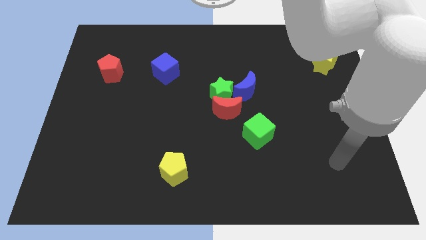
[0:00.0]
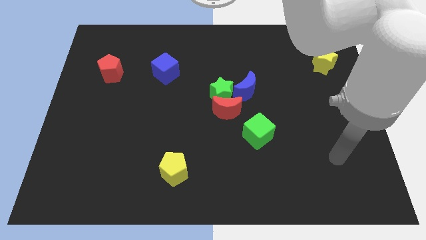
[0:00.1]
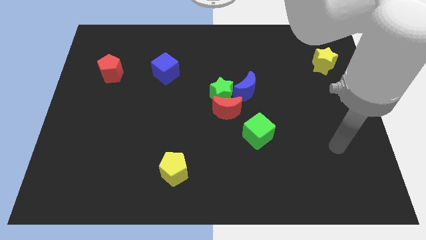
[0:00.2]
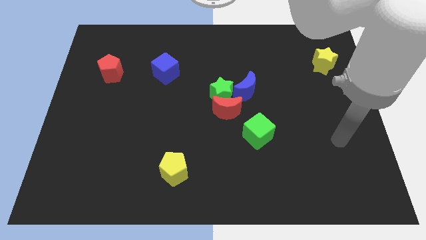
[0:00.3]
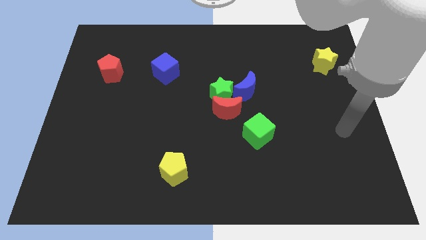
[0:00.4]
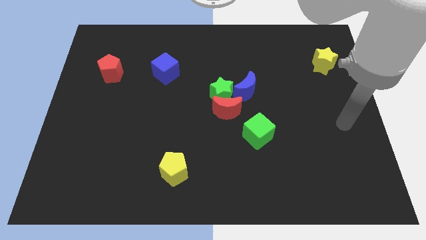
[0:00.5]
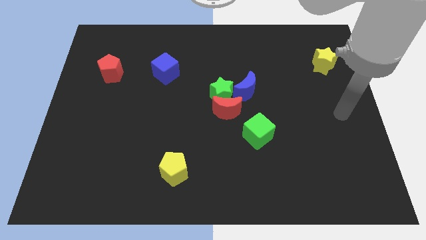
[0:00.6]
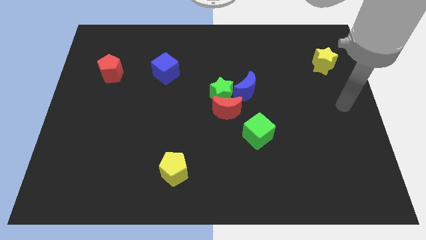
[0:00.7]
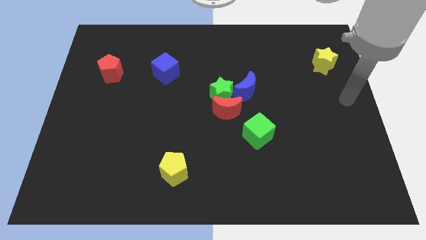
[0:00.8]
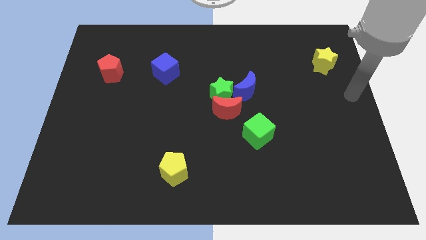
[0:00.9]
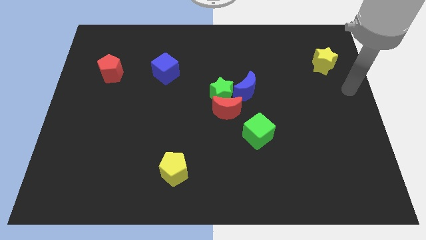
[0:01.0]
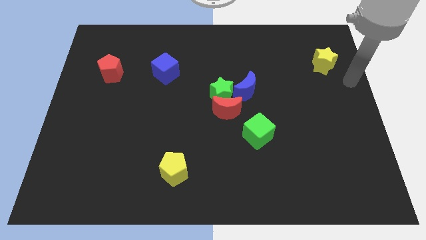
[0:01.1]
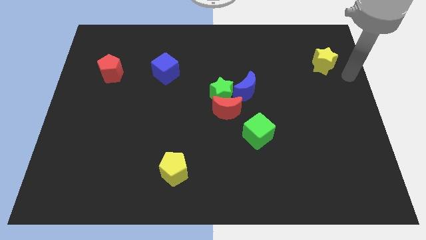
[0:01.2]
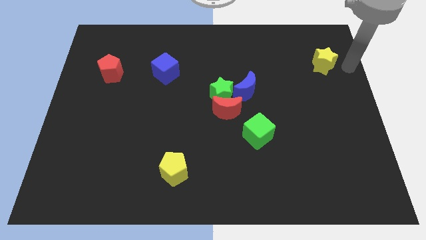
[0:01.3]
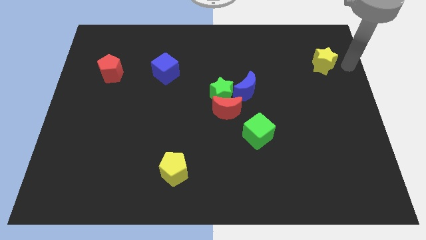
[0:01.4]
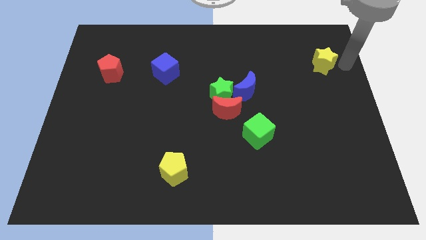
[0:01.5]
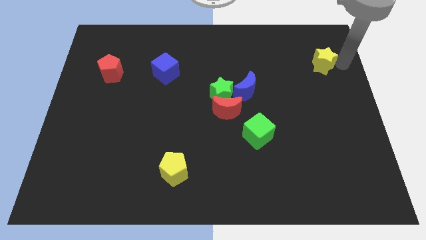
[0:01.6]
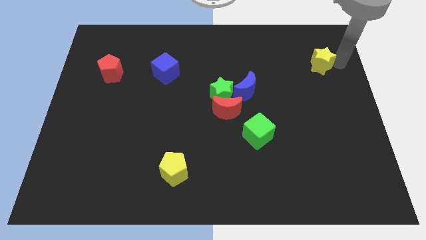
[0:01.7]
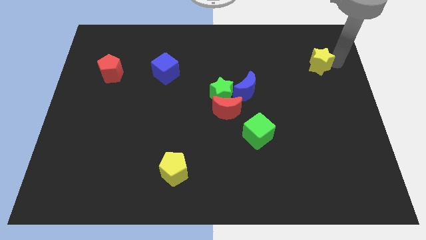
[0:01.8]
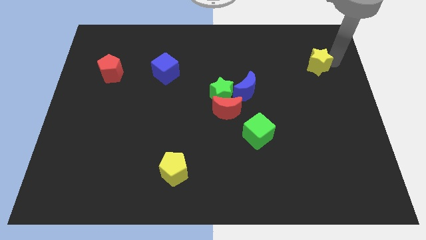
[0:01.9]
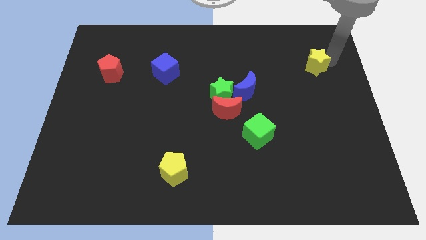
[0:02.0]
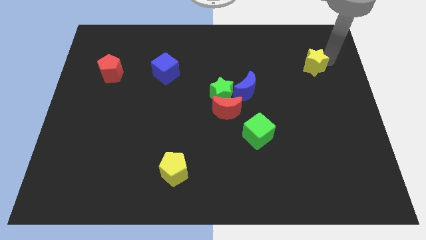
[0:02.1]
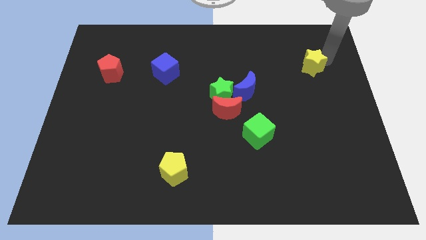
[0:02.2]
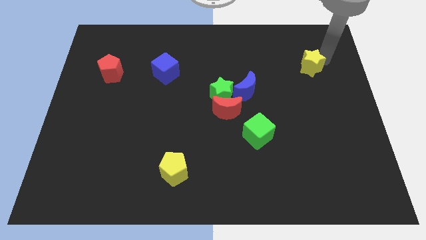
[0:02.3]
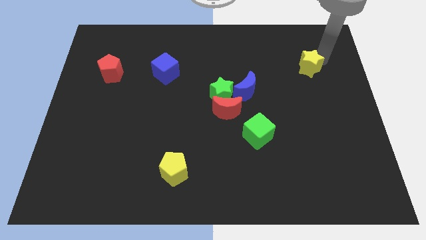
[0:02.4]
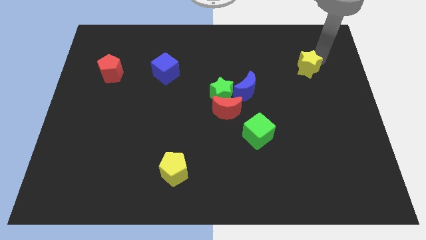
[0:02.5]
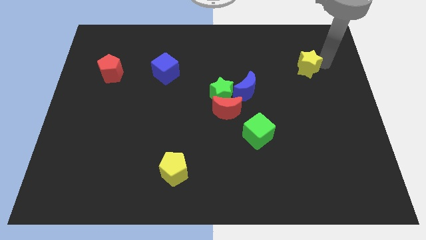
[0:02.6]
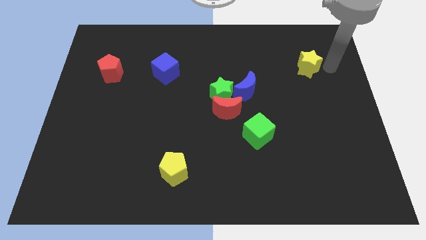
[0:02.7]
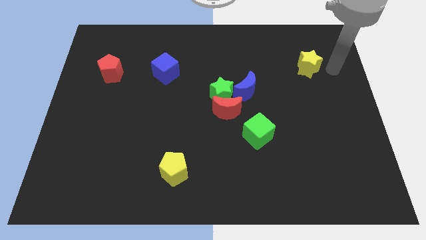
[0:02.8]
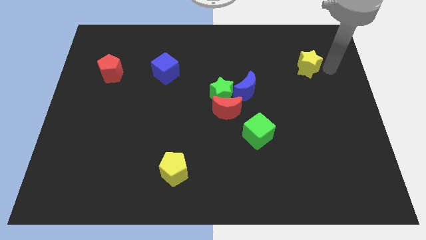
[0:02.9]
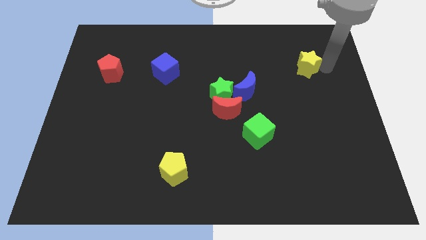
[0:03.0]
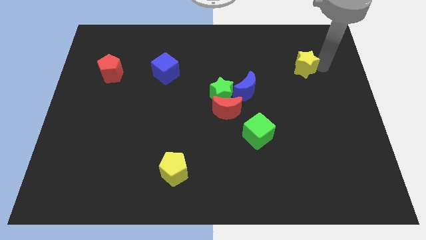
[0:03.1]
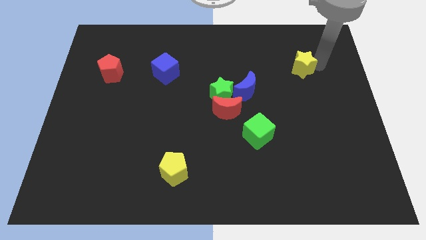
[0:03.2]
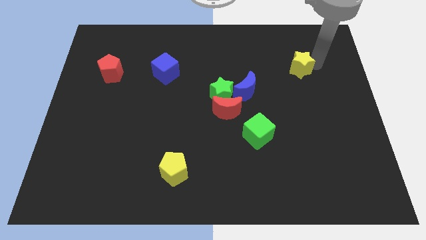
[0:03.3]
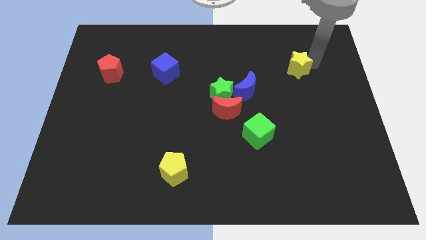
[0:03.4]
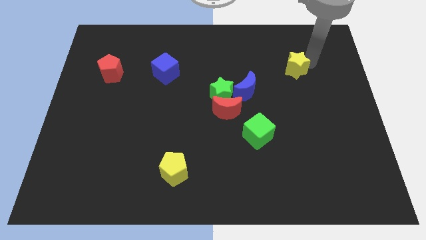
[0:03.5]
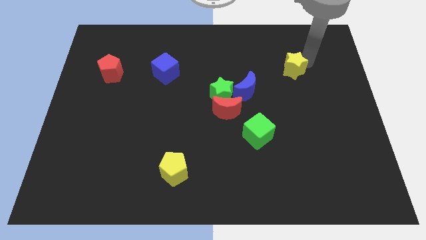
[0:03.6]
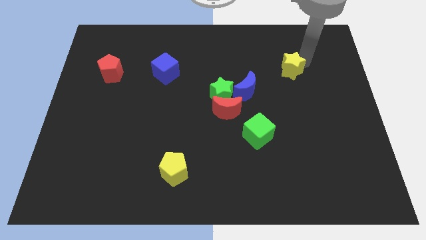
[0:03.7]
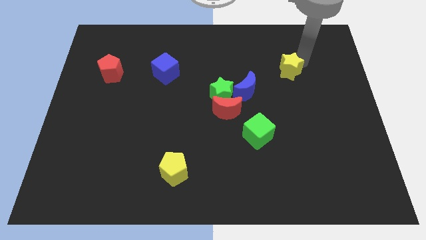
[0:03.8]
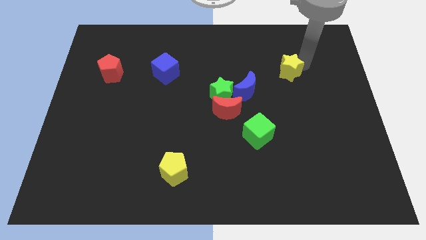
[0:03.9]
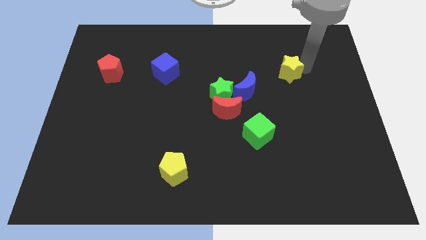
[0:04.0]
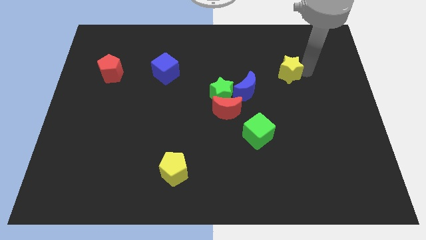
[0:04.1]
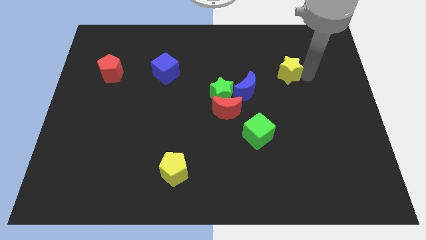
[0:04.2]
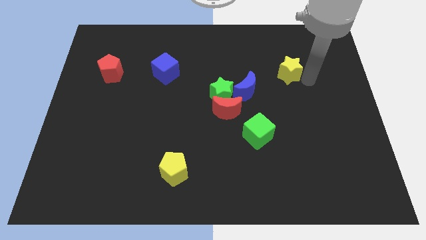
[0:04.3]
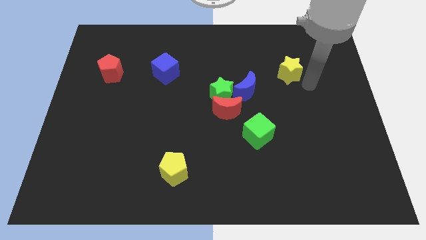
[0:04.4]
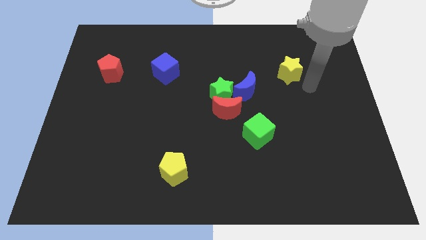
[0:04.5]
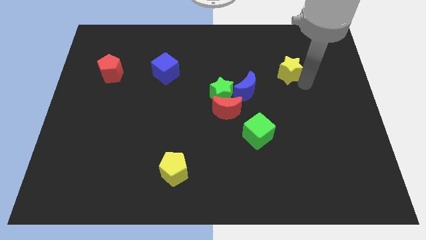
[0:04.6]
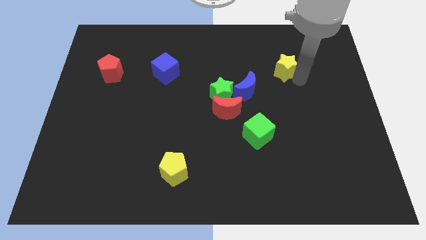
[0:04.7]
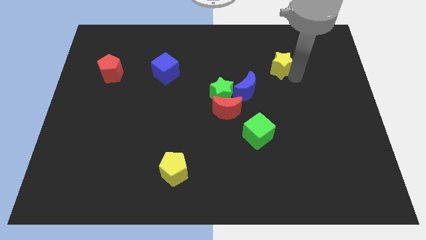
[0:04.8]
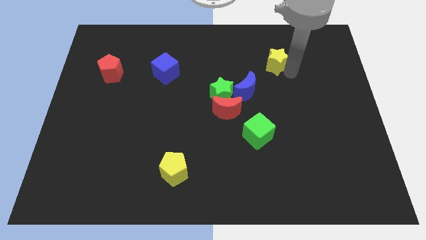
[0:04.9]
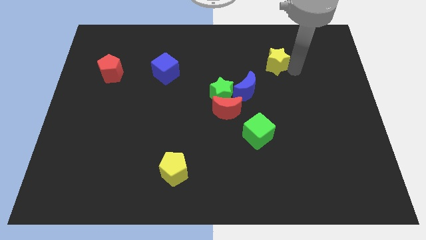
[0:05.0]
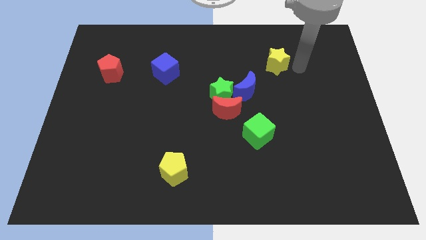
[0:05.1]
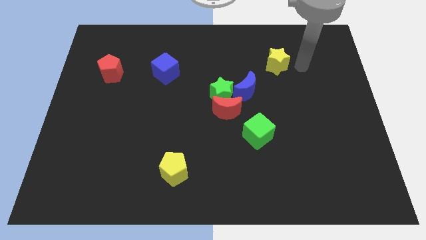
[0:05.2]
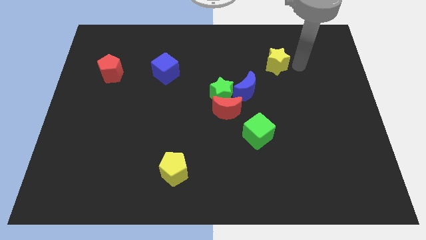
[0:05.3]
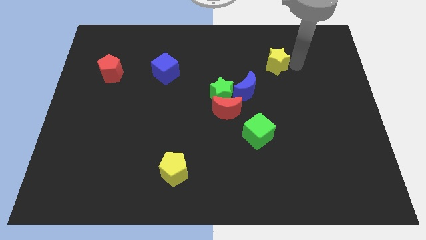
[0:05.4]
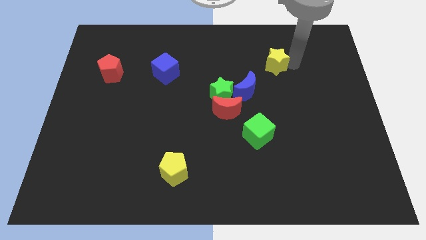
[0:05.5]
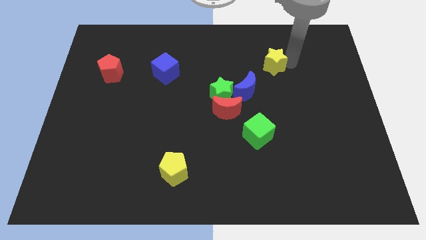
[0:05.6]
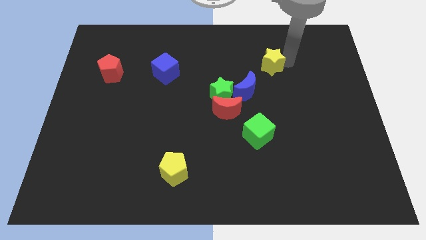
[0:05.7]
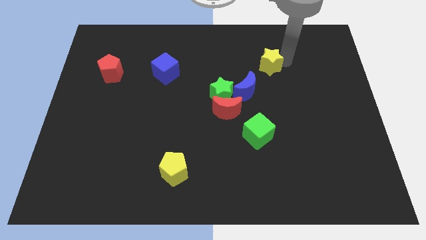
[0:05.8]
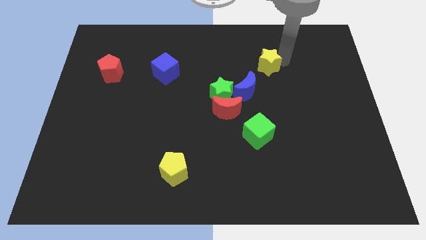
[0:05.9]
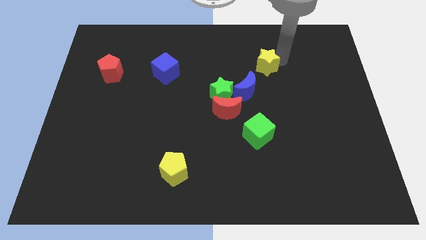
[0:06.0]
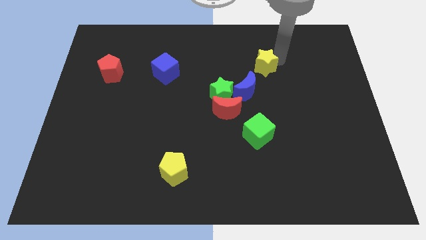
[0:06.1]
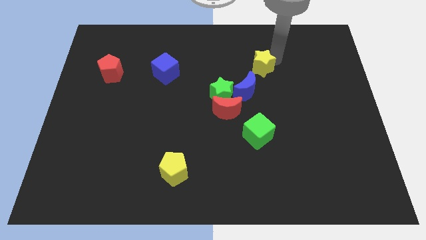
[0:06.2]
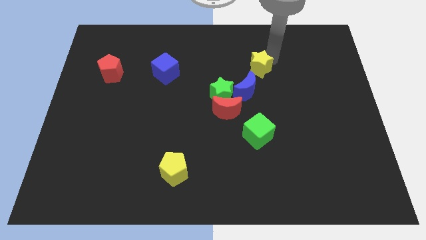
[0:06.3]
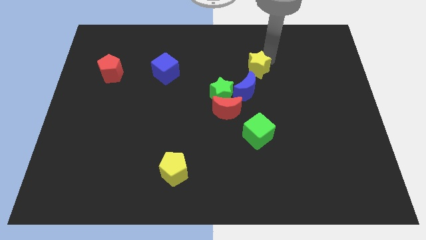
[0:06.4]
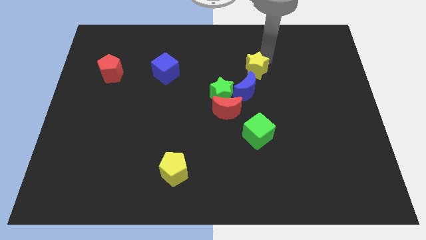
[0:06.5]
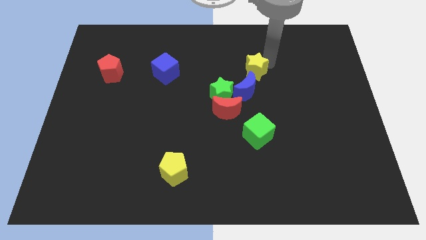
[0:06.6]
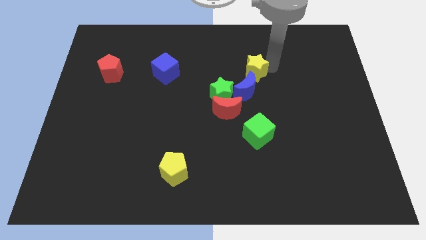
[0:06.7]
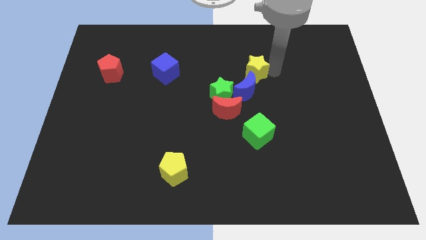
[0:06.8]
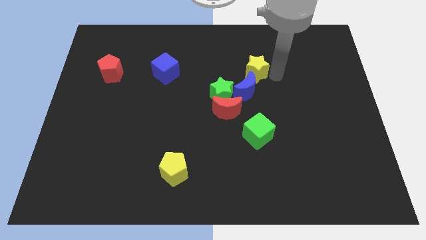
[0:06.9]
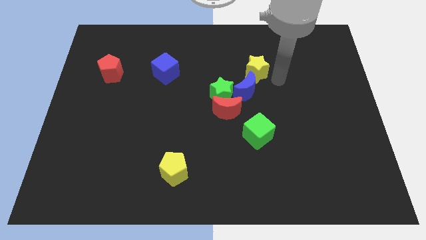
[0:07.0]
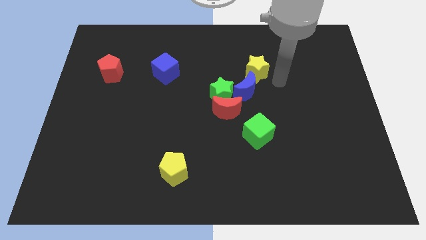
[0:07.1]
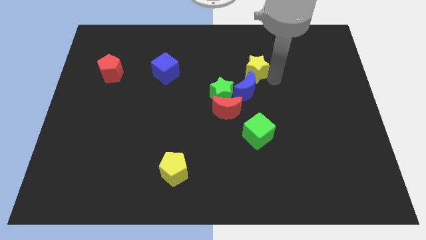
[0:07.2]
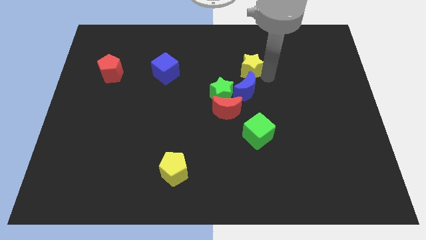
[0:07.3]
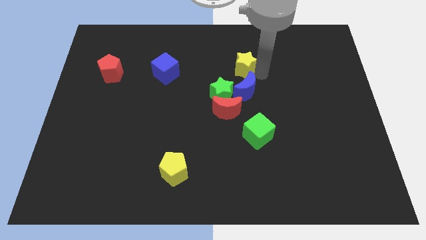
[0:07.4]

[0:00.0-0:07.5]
slide the yellow star to the left

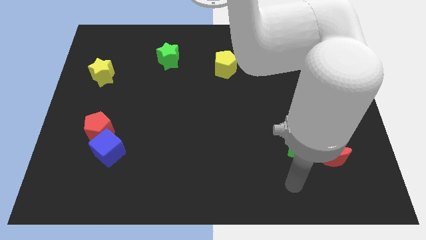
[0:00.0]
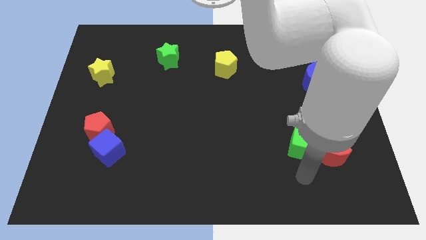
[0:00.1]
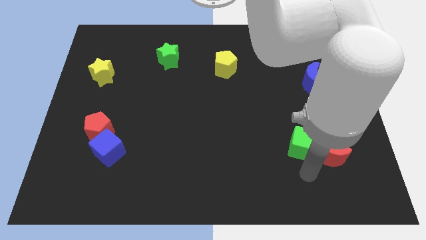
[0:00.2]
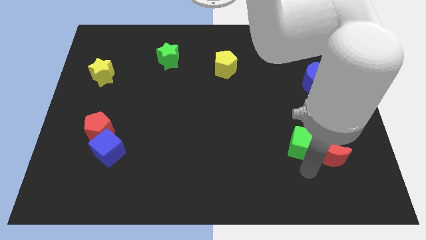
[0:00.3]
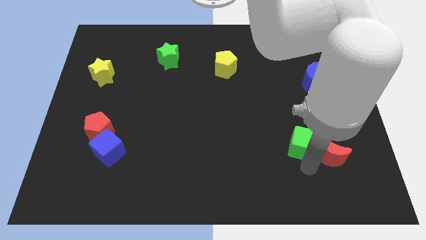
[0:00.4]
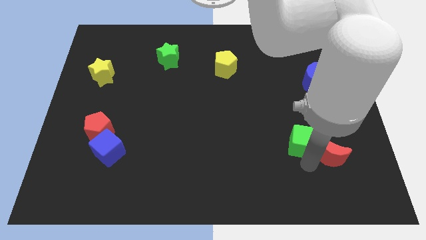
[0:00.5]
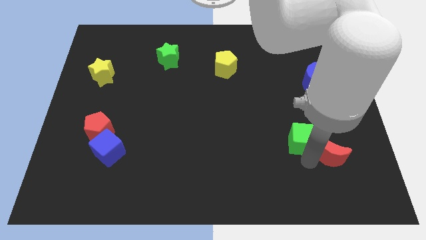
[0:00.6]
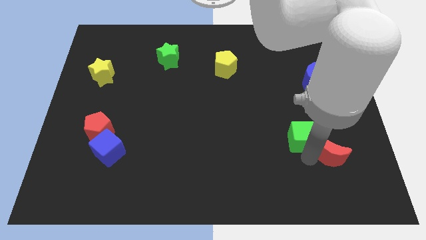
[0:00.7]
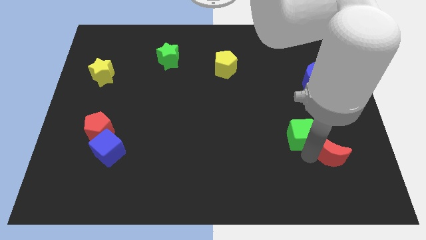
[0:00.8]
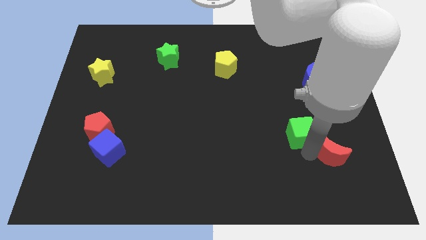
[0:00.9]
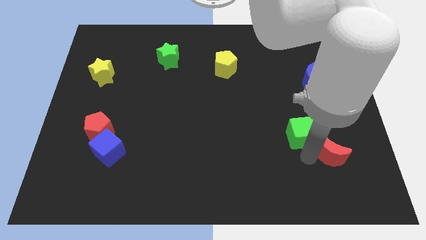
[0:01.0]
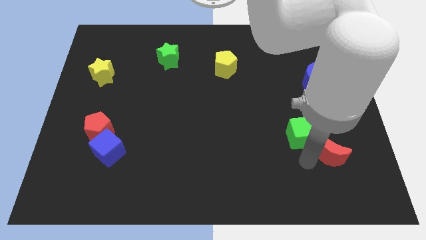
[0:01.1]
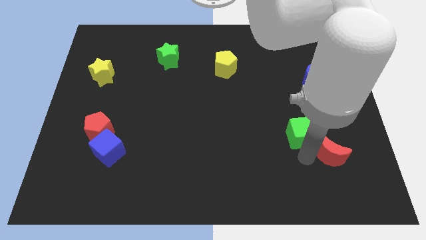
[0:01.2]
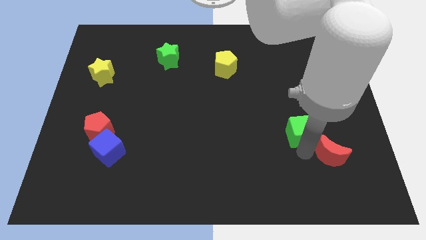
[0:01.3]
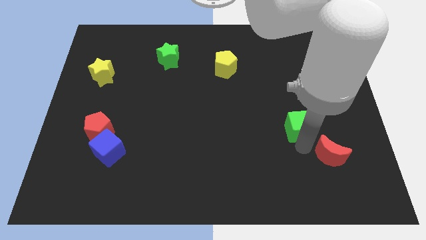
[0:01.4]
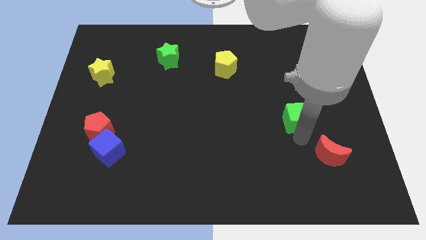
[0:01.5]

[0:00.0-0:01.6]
slightly slide the green cube up
